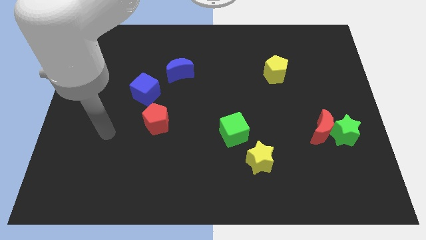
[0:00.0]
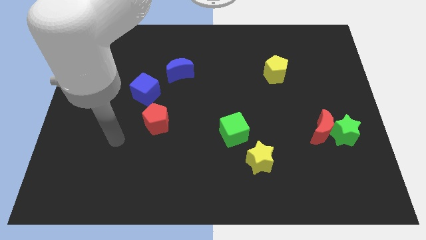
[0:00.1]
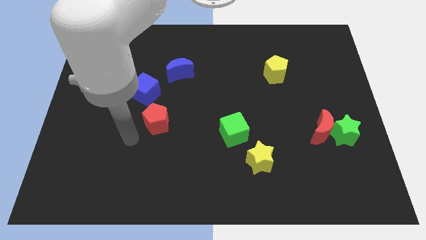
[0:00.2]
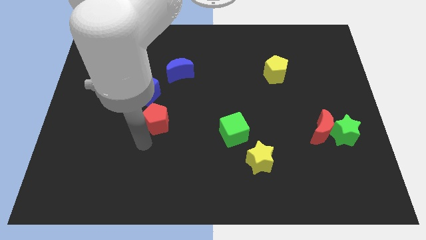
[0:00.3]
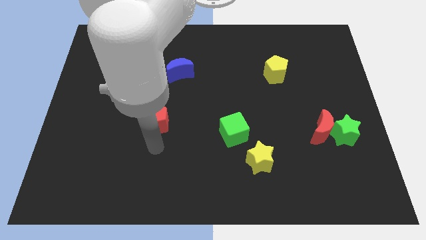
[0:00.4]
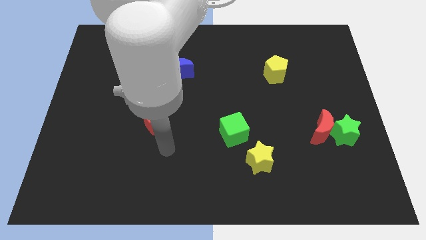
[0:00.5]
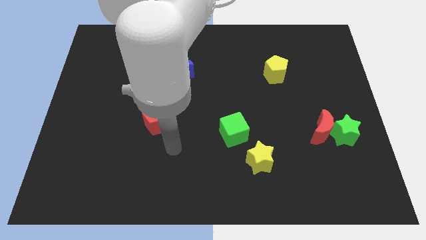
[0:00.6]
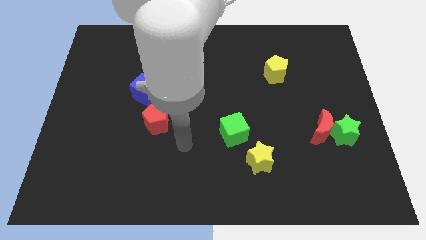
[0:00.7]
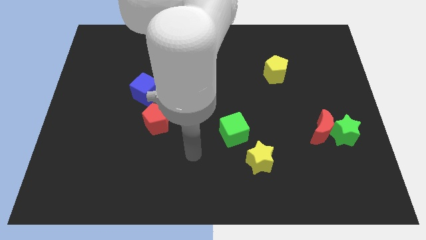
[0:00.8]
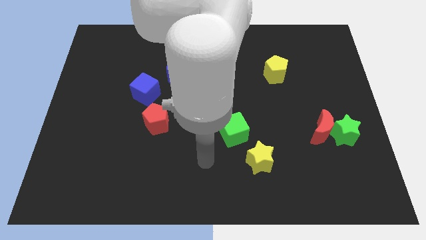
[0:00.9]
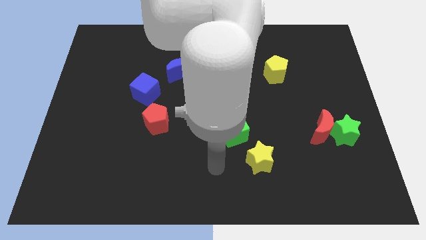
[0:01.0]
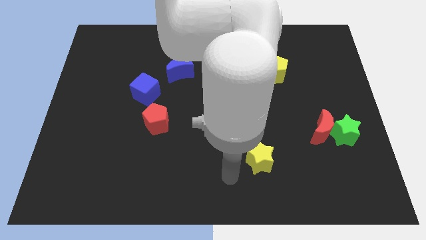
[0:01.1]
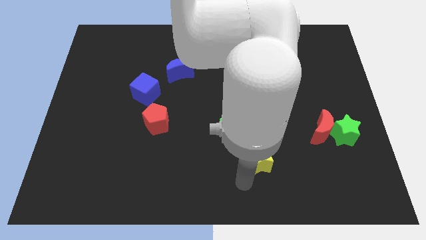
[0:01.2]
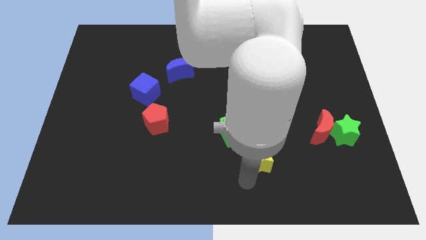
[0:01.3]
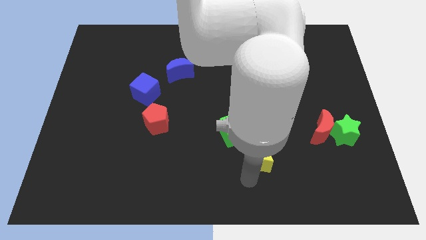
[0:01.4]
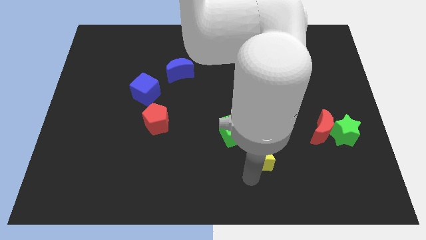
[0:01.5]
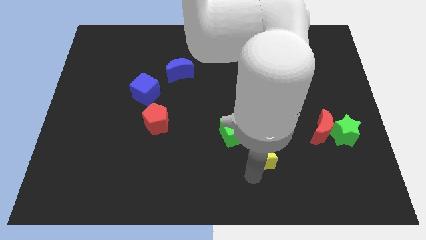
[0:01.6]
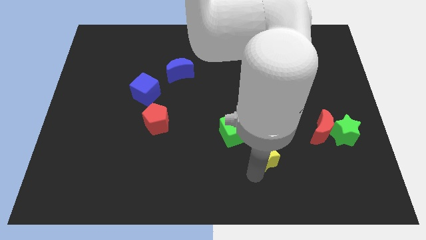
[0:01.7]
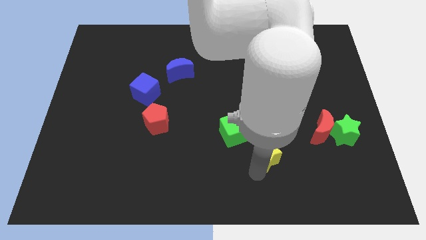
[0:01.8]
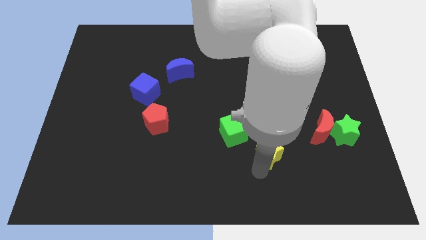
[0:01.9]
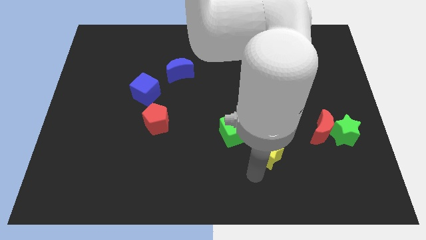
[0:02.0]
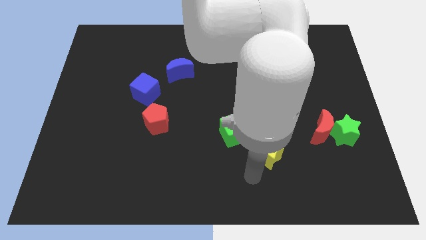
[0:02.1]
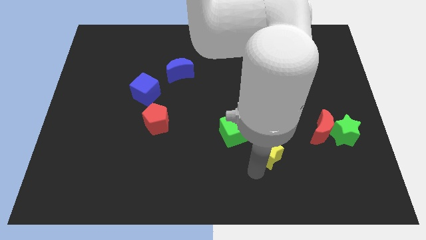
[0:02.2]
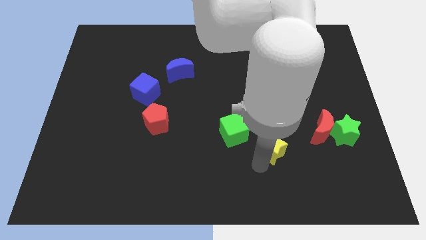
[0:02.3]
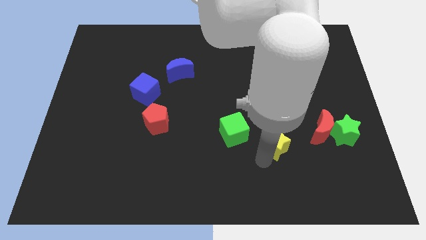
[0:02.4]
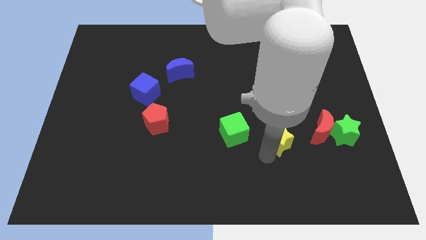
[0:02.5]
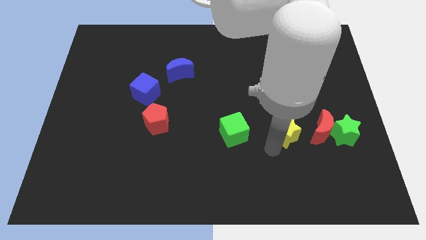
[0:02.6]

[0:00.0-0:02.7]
slightly push the yellow star up and right diagonally

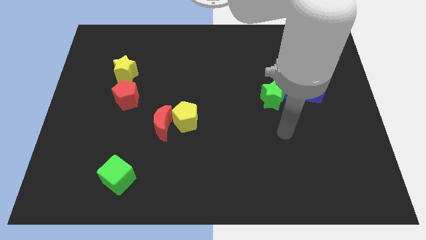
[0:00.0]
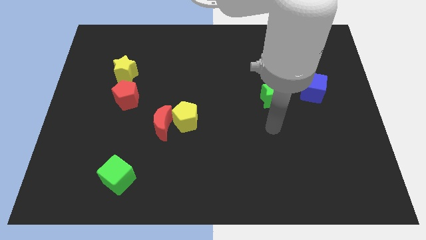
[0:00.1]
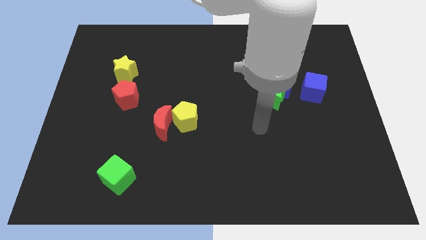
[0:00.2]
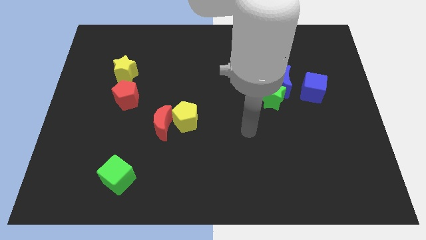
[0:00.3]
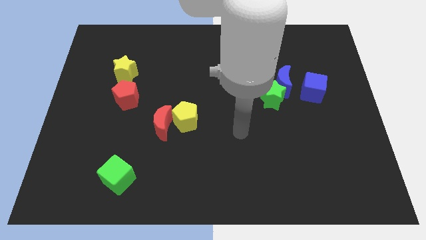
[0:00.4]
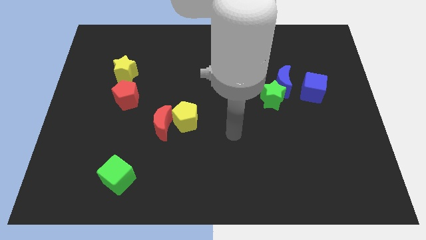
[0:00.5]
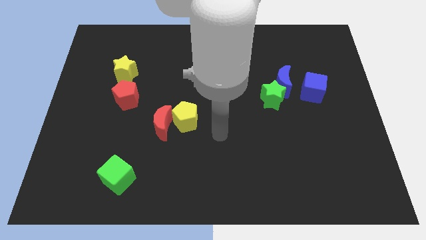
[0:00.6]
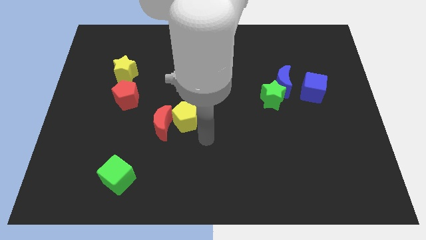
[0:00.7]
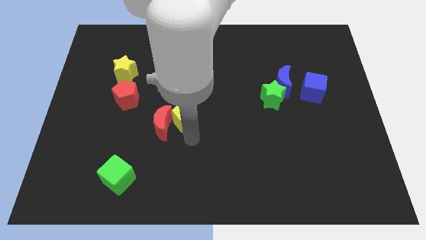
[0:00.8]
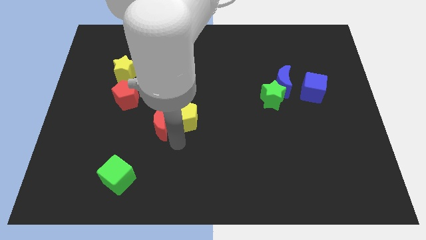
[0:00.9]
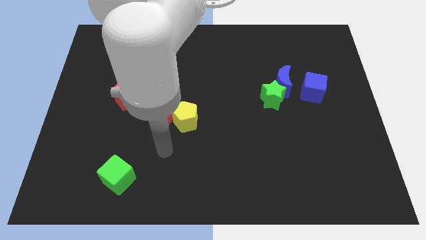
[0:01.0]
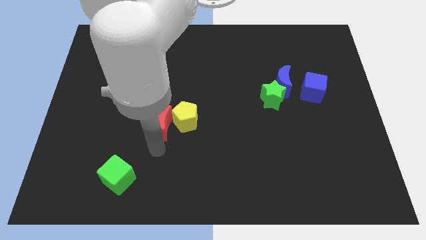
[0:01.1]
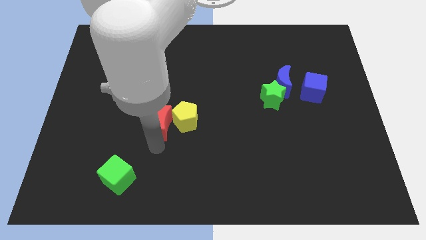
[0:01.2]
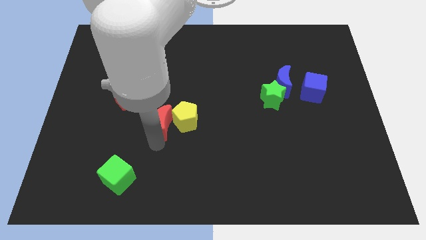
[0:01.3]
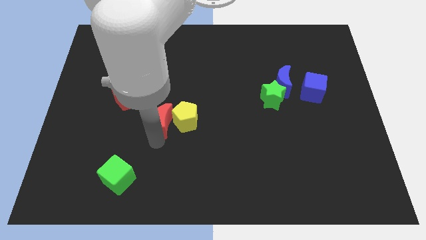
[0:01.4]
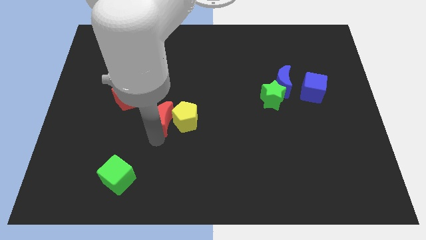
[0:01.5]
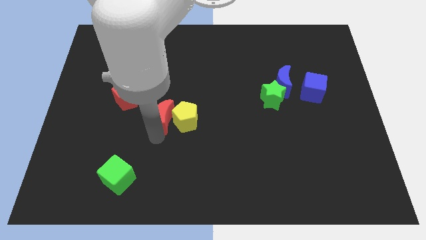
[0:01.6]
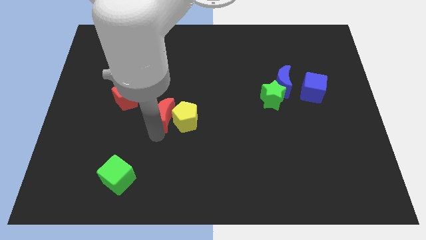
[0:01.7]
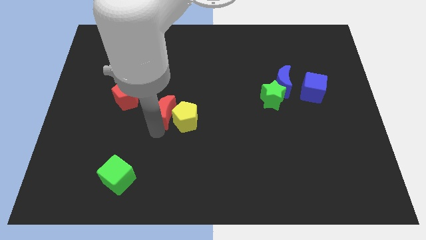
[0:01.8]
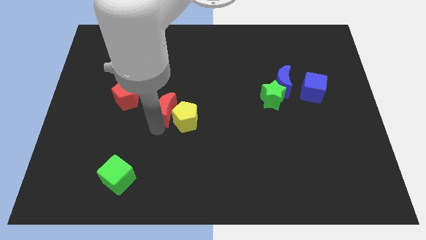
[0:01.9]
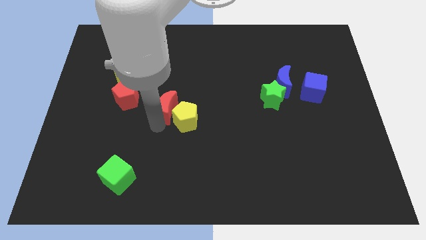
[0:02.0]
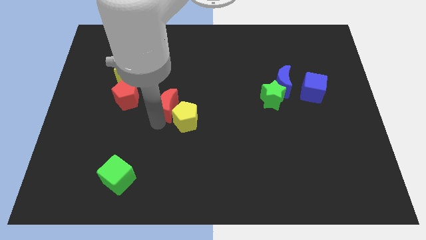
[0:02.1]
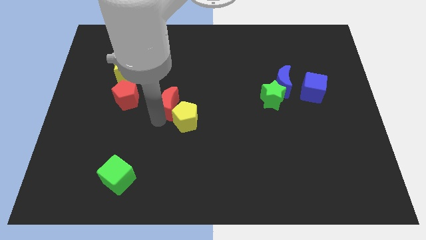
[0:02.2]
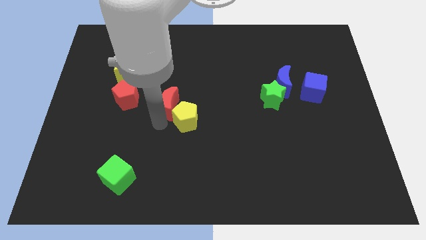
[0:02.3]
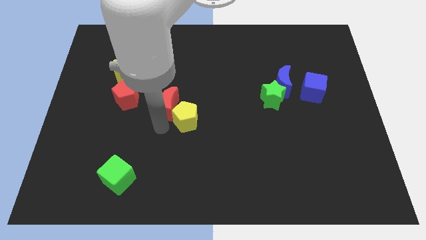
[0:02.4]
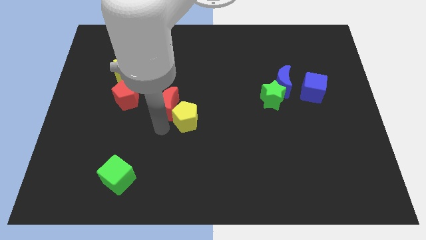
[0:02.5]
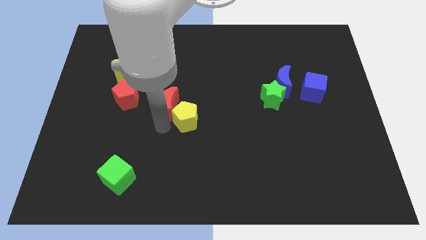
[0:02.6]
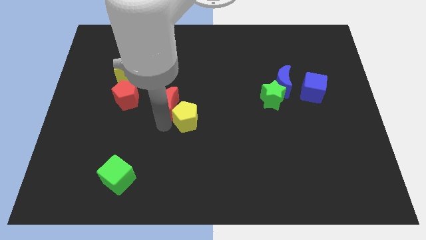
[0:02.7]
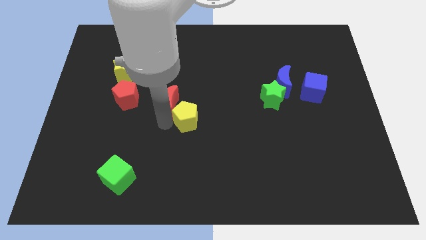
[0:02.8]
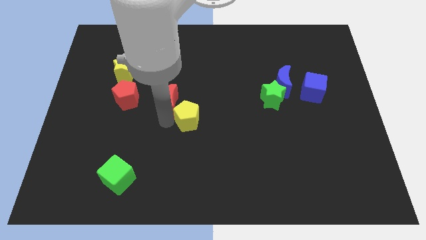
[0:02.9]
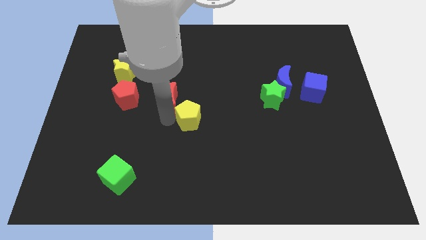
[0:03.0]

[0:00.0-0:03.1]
slide the red moon a little bit up

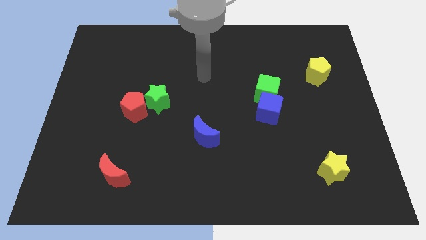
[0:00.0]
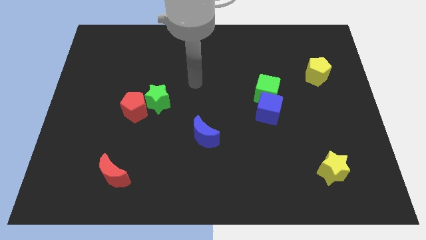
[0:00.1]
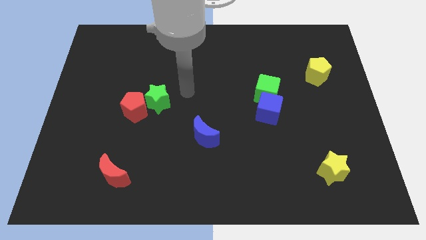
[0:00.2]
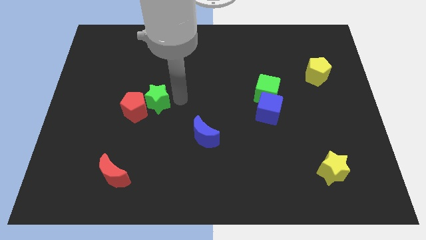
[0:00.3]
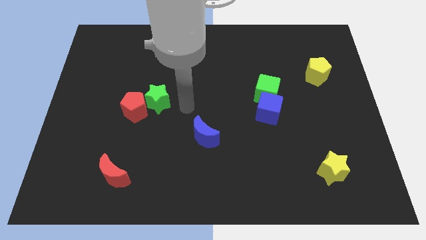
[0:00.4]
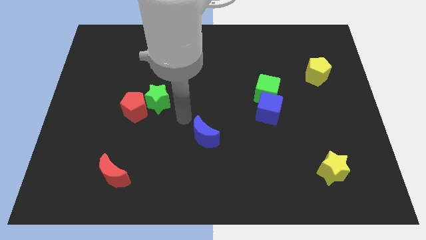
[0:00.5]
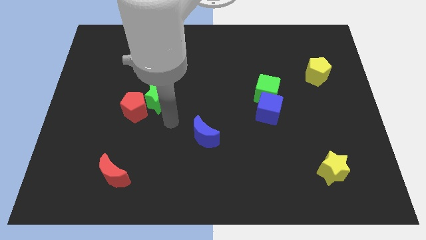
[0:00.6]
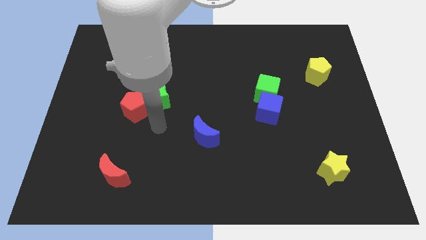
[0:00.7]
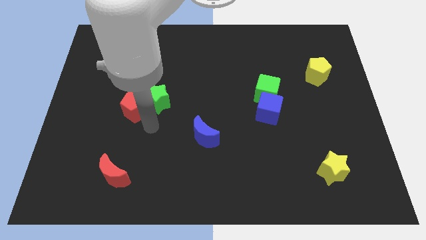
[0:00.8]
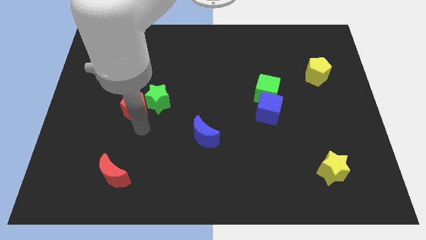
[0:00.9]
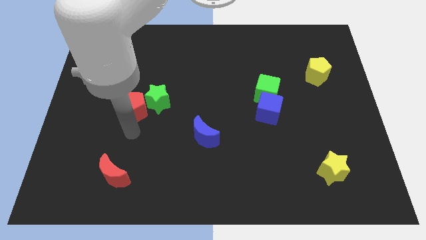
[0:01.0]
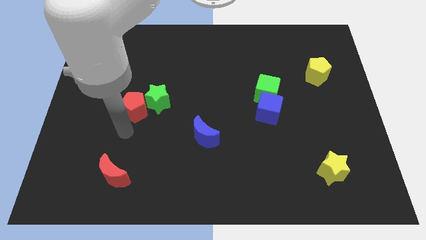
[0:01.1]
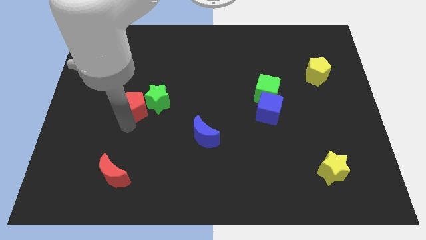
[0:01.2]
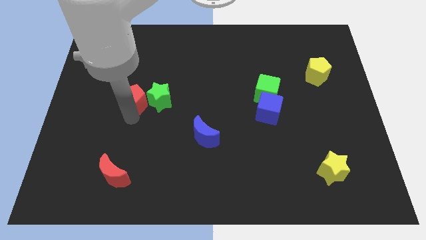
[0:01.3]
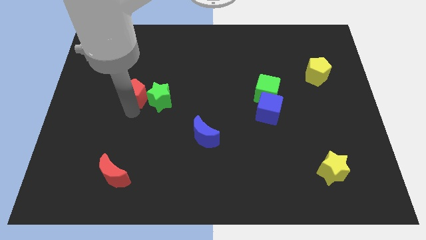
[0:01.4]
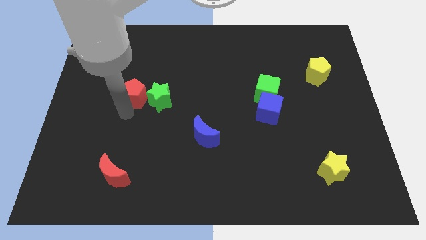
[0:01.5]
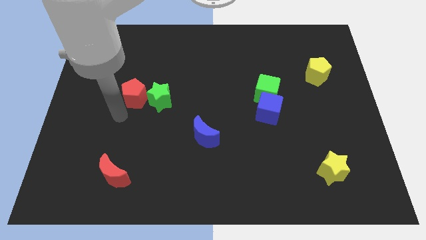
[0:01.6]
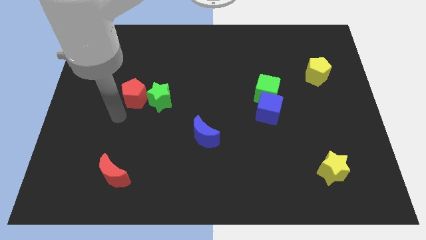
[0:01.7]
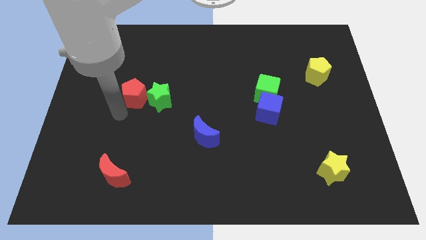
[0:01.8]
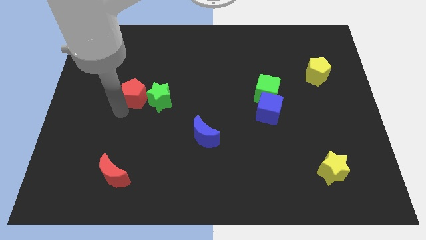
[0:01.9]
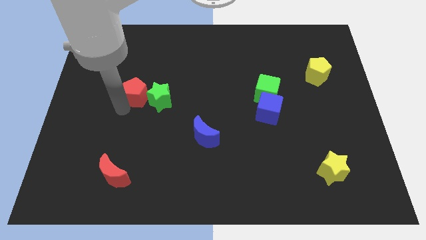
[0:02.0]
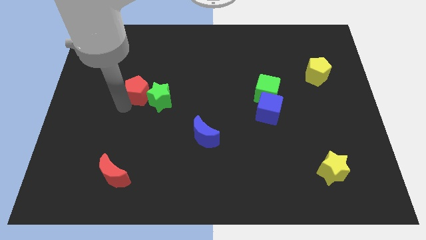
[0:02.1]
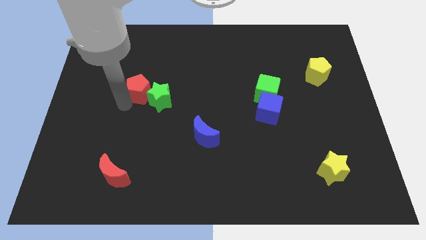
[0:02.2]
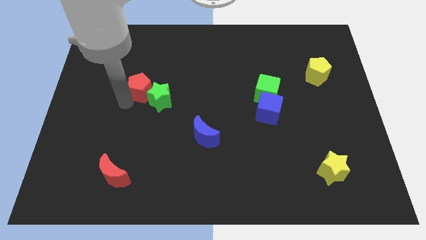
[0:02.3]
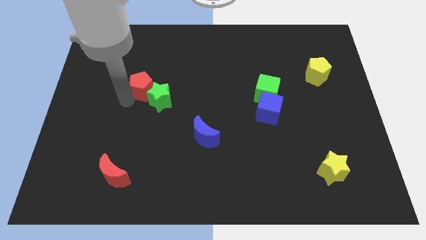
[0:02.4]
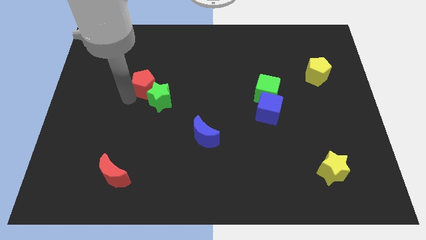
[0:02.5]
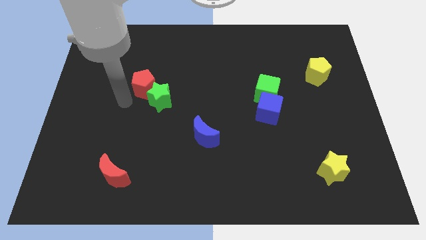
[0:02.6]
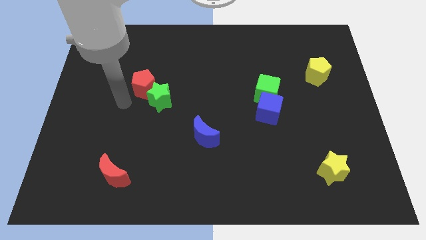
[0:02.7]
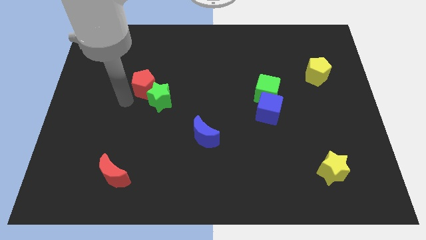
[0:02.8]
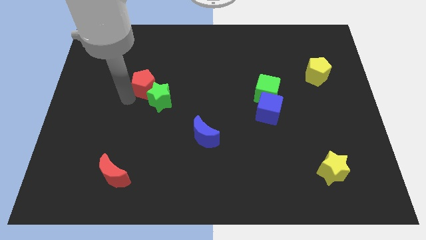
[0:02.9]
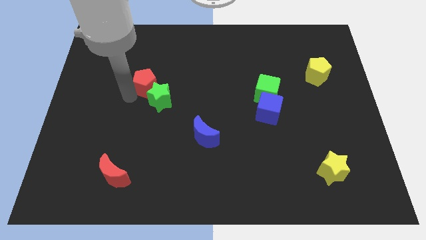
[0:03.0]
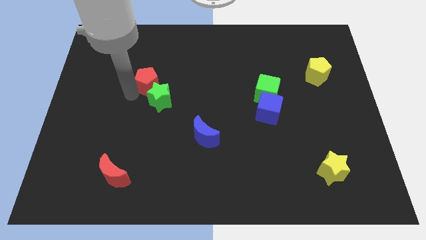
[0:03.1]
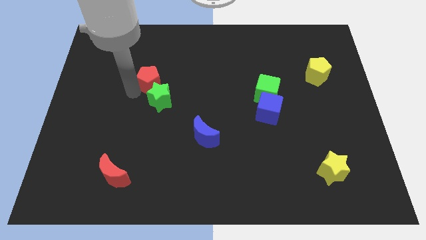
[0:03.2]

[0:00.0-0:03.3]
slide the red pentagon up and to the right diagonally somewhat
